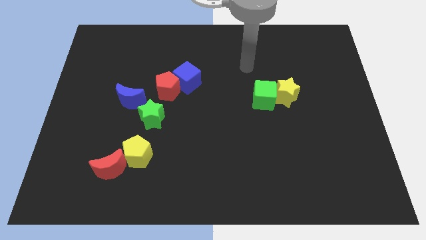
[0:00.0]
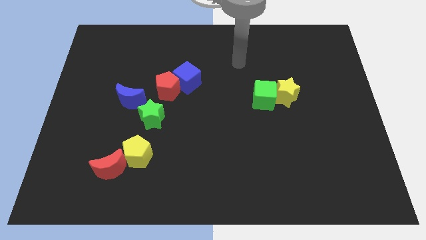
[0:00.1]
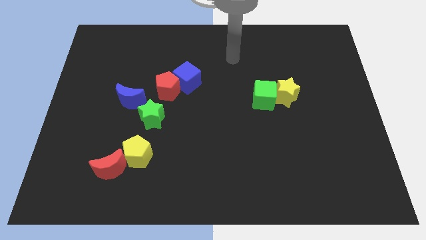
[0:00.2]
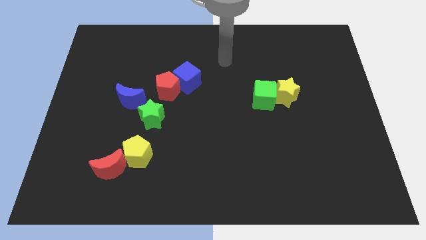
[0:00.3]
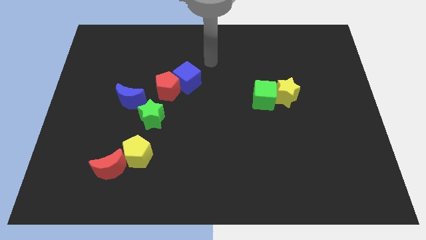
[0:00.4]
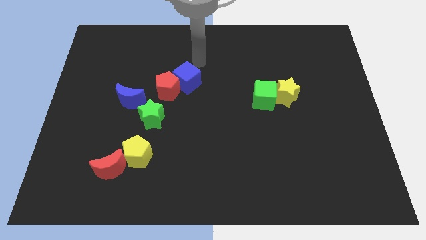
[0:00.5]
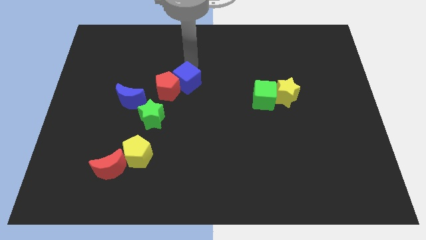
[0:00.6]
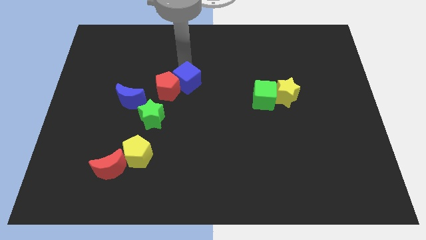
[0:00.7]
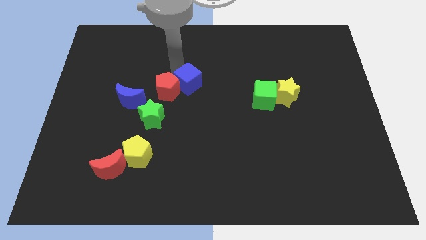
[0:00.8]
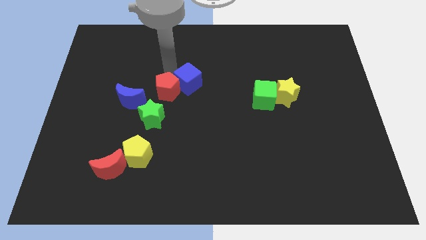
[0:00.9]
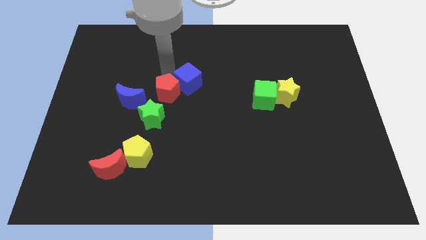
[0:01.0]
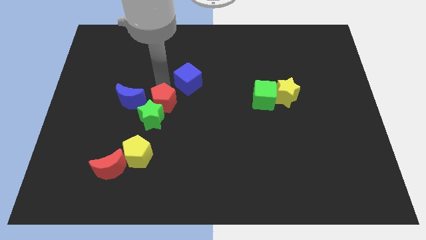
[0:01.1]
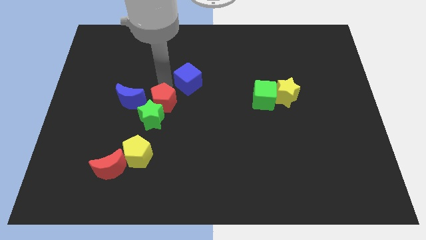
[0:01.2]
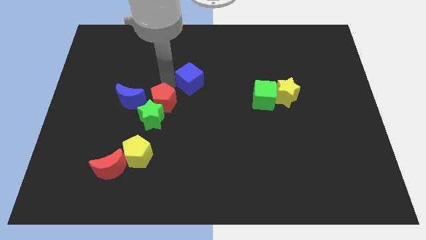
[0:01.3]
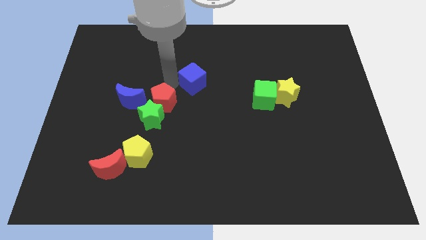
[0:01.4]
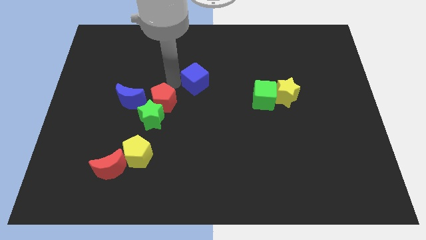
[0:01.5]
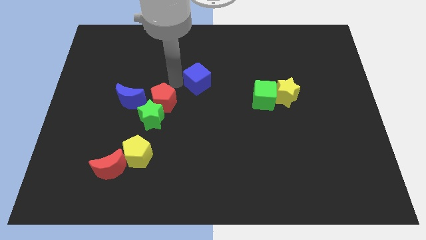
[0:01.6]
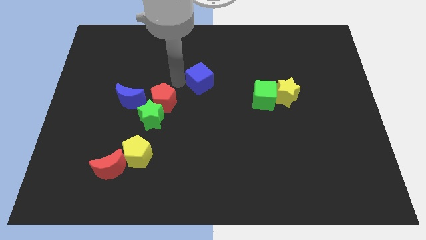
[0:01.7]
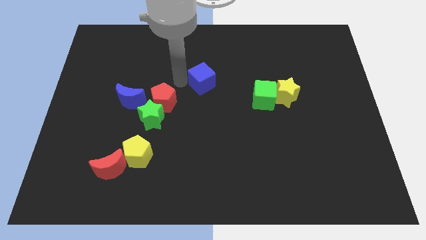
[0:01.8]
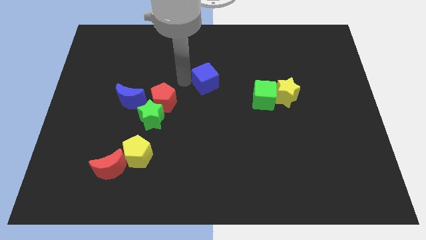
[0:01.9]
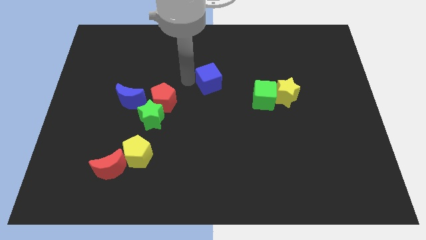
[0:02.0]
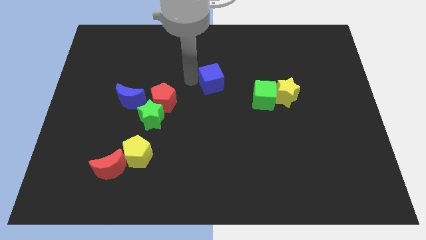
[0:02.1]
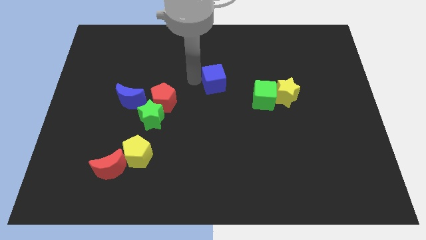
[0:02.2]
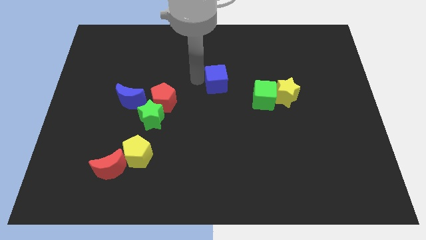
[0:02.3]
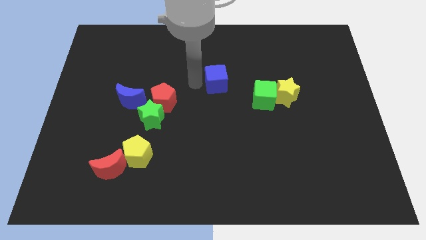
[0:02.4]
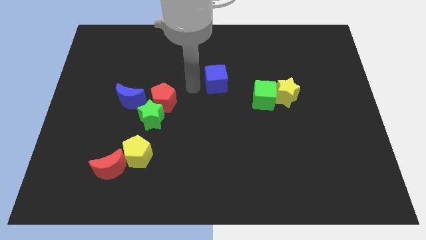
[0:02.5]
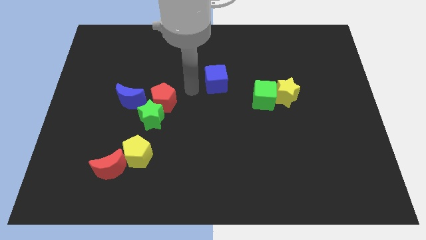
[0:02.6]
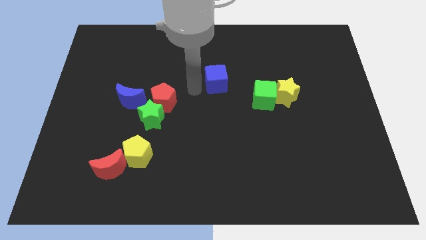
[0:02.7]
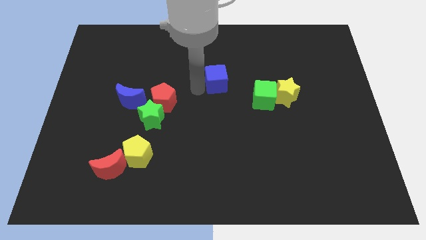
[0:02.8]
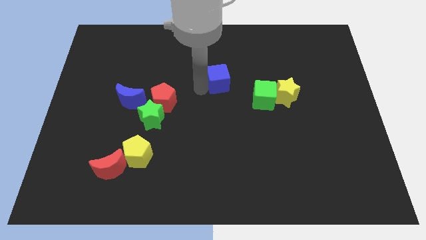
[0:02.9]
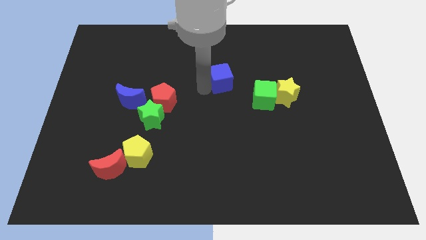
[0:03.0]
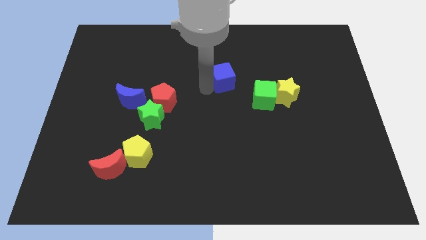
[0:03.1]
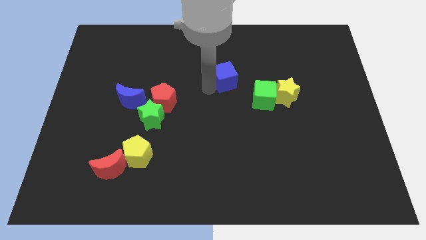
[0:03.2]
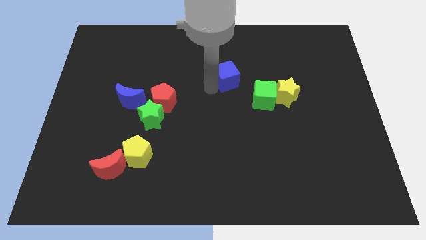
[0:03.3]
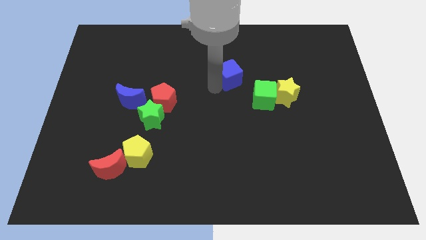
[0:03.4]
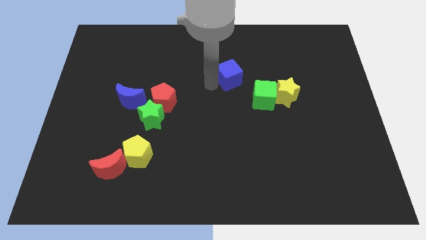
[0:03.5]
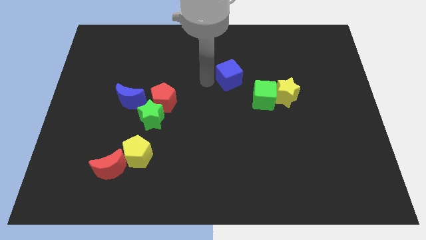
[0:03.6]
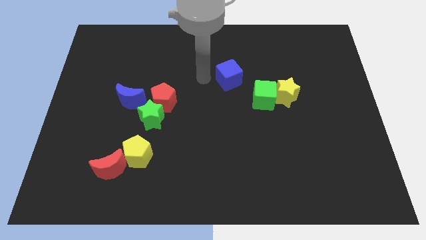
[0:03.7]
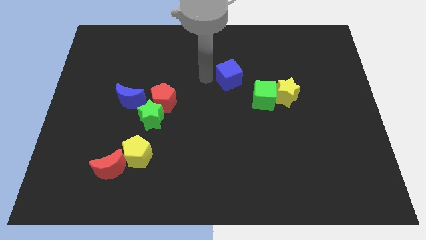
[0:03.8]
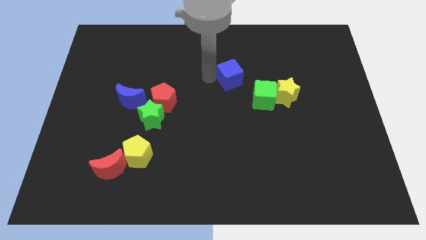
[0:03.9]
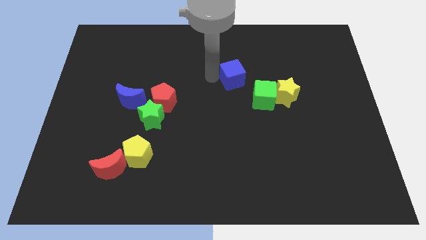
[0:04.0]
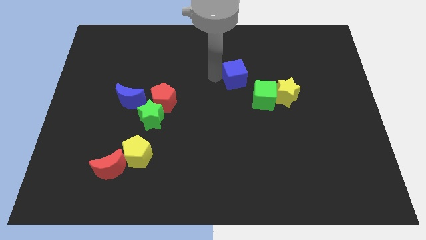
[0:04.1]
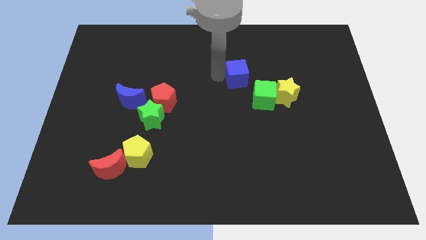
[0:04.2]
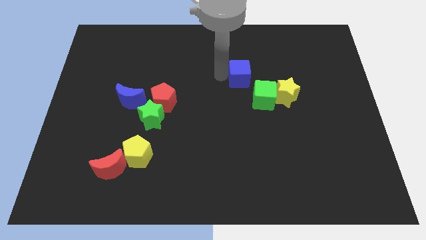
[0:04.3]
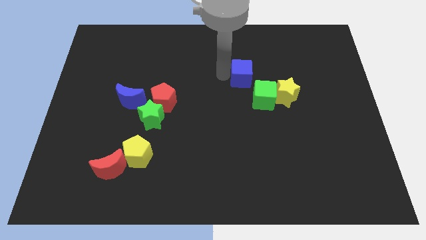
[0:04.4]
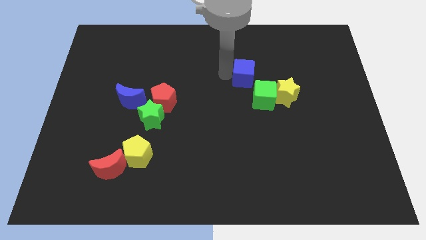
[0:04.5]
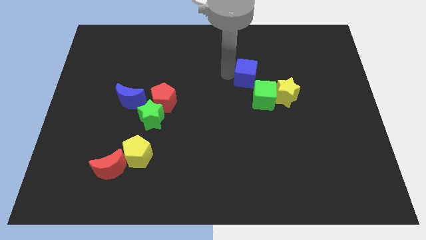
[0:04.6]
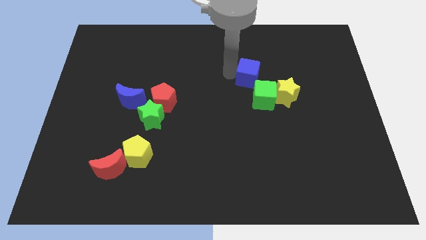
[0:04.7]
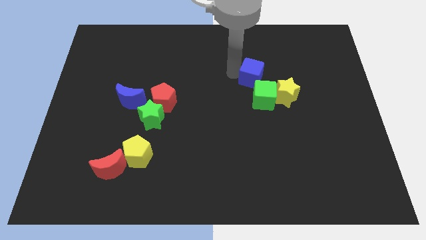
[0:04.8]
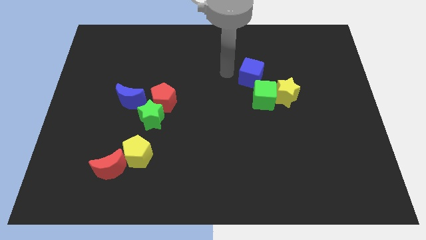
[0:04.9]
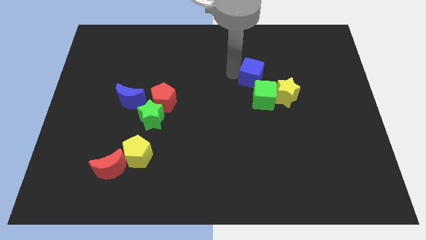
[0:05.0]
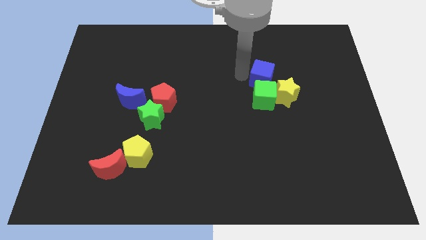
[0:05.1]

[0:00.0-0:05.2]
move the blue cube to the top right of the green cube

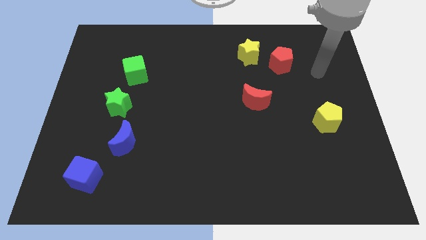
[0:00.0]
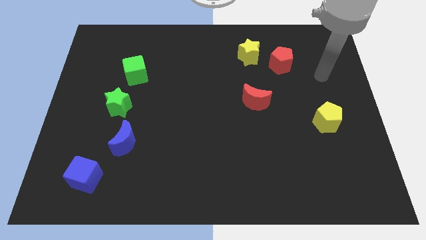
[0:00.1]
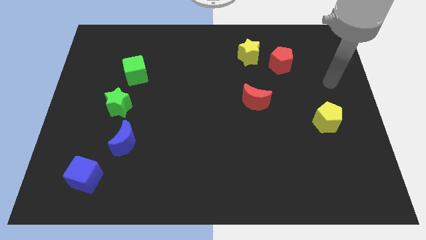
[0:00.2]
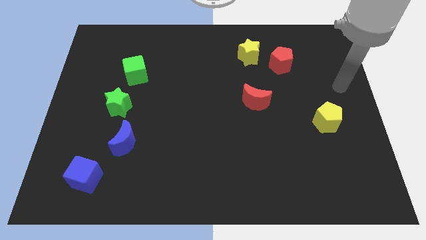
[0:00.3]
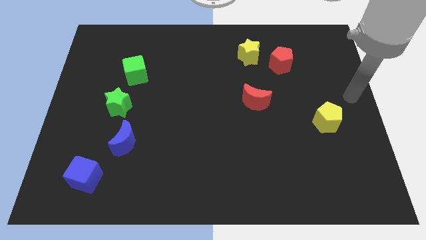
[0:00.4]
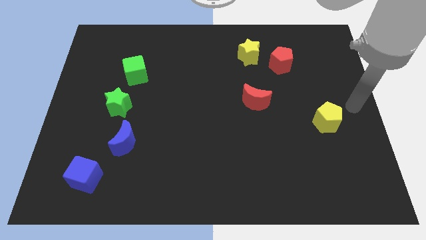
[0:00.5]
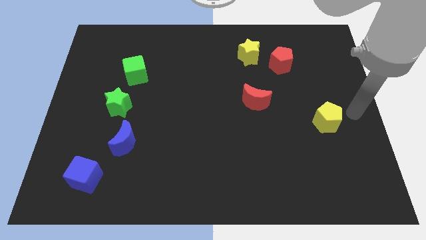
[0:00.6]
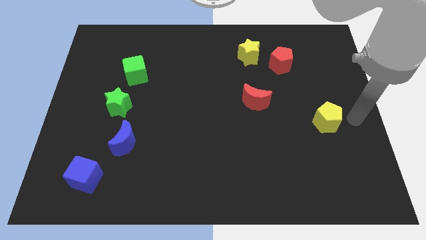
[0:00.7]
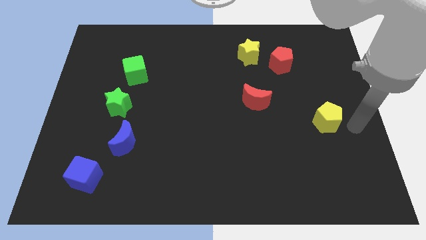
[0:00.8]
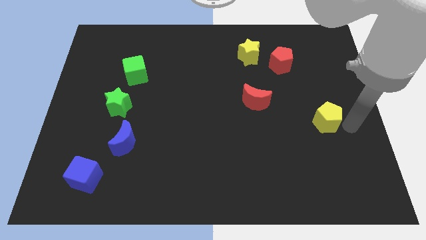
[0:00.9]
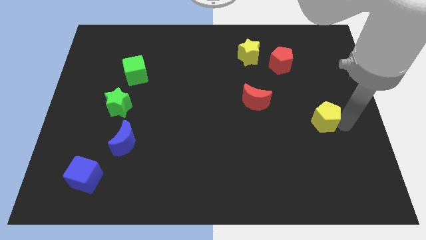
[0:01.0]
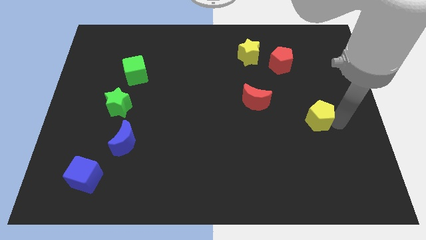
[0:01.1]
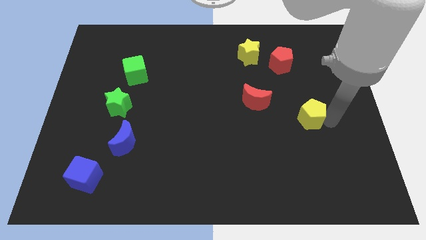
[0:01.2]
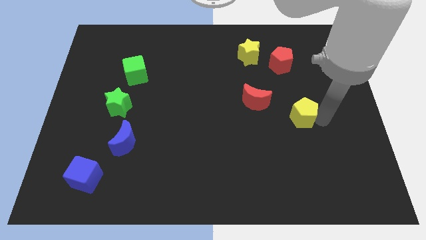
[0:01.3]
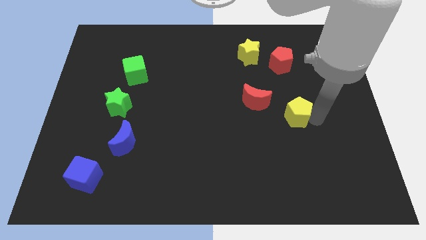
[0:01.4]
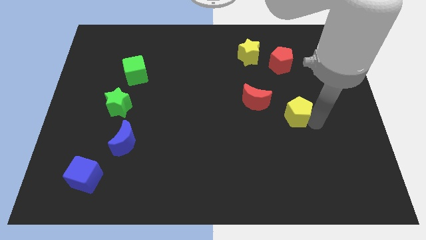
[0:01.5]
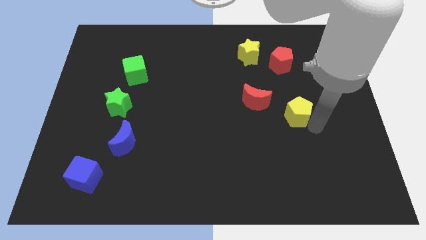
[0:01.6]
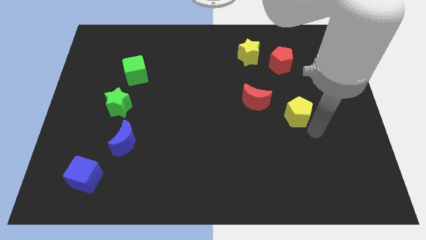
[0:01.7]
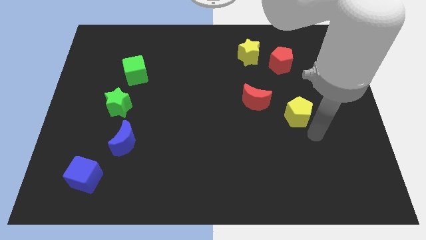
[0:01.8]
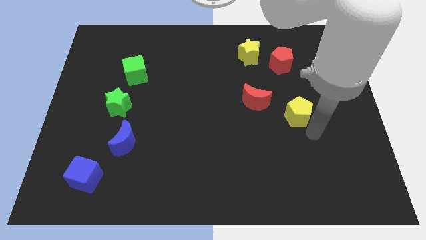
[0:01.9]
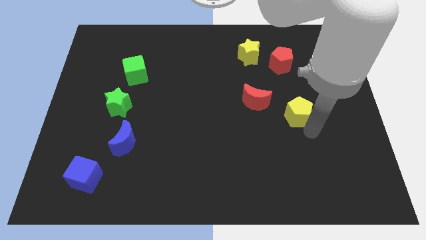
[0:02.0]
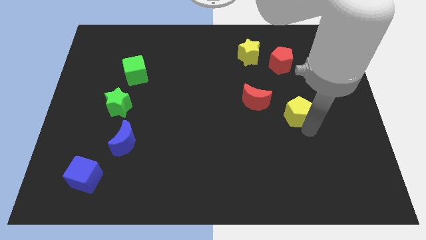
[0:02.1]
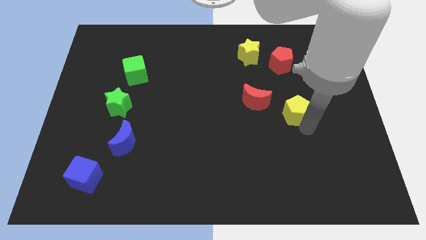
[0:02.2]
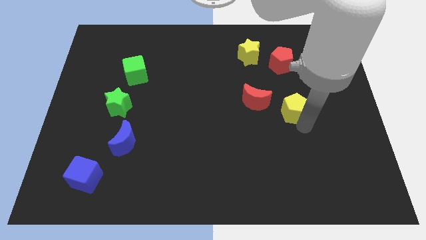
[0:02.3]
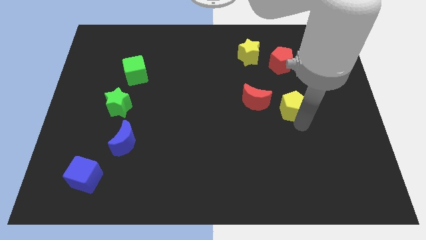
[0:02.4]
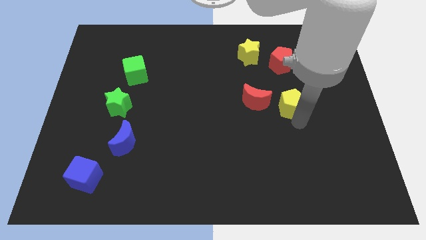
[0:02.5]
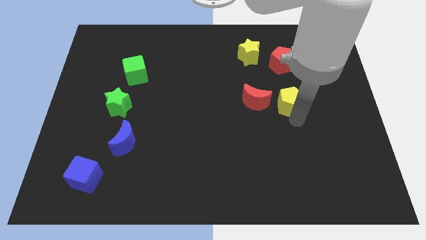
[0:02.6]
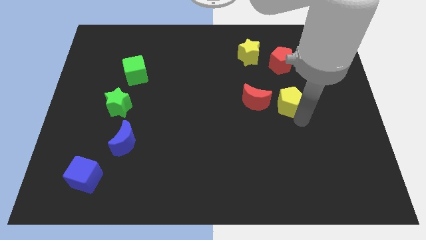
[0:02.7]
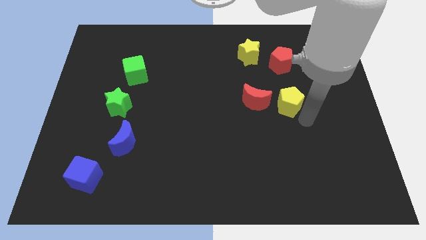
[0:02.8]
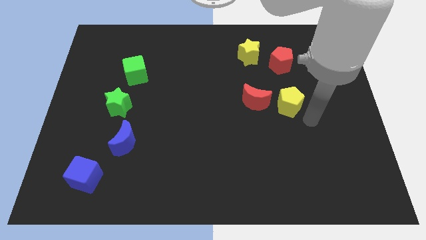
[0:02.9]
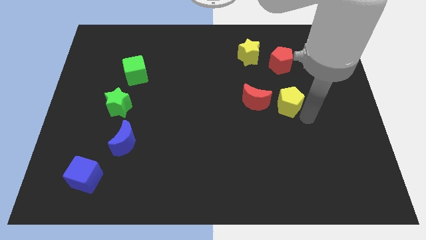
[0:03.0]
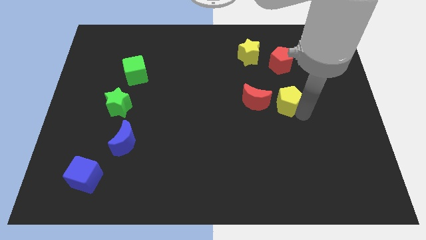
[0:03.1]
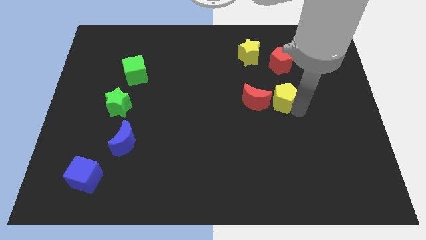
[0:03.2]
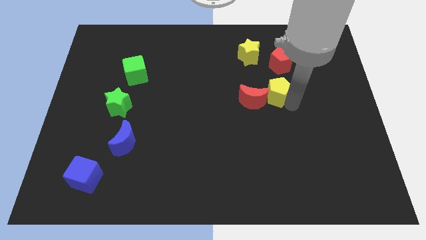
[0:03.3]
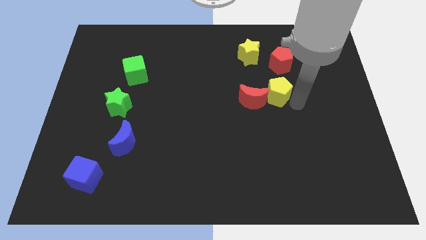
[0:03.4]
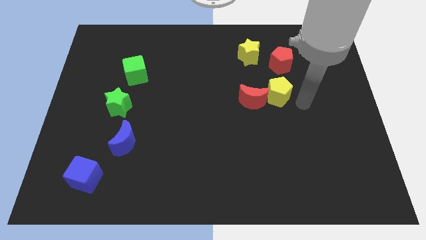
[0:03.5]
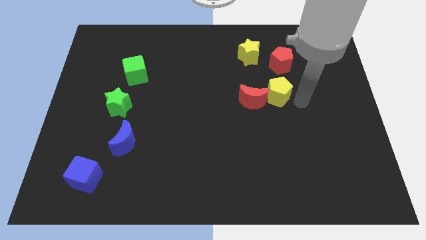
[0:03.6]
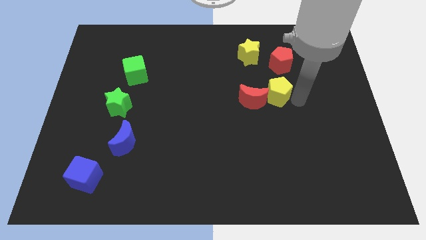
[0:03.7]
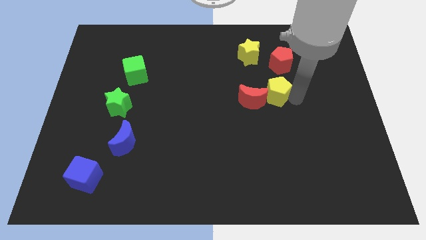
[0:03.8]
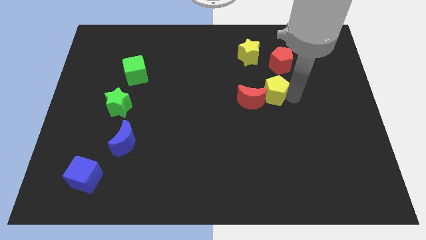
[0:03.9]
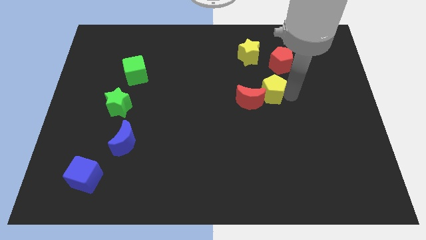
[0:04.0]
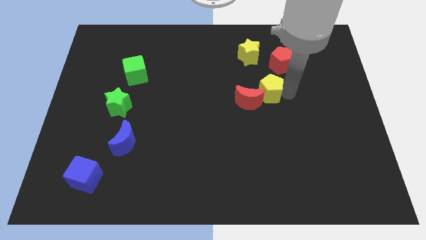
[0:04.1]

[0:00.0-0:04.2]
move the yellow pentagon to the bottom side of the yellow star
